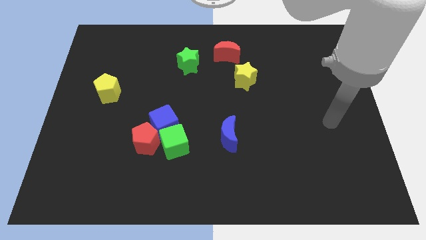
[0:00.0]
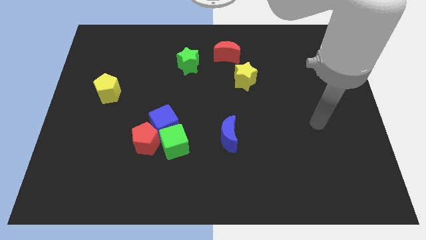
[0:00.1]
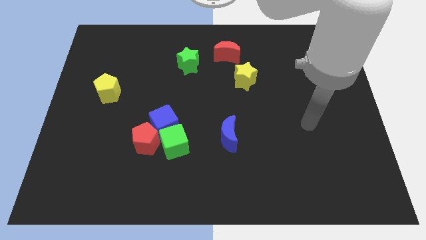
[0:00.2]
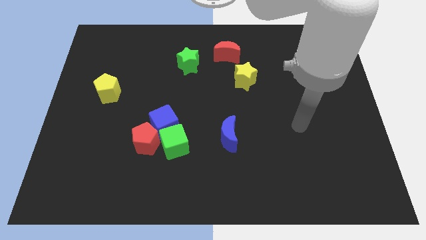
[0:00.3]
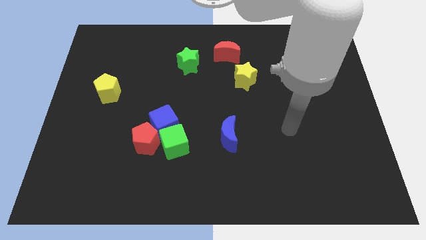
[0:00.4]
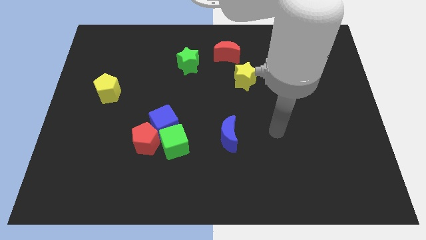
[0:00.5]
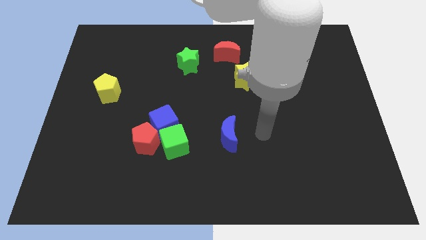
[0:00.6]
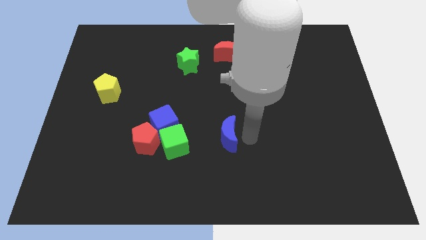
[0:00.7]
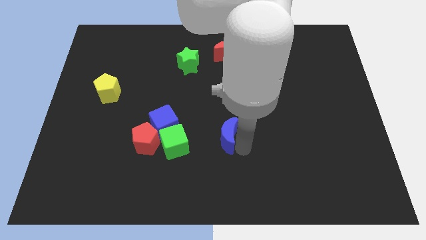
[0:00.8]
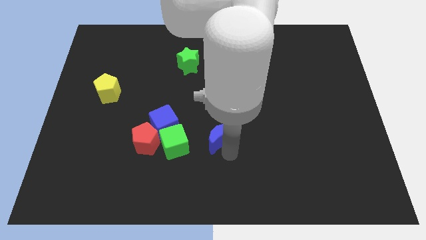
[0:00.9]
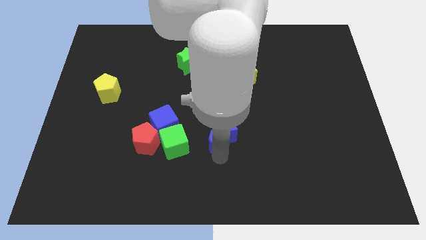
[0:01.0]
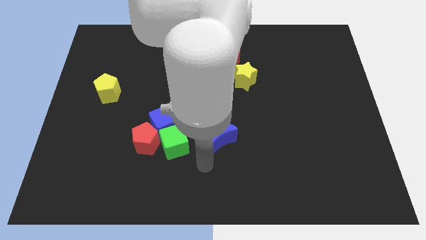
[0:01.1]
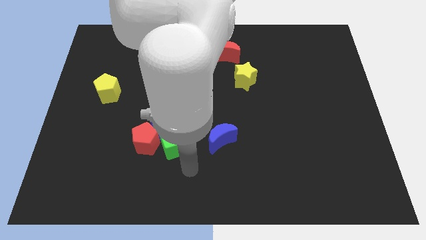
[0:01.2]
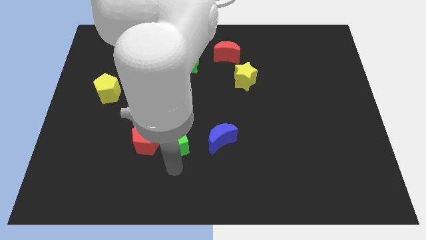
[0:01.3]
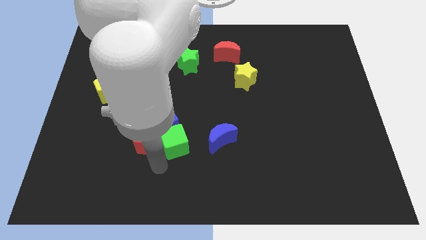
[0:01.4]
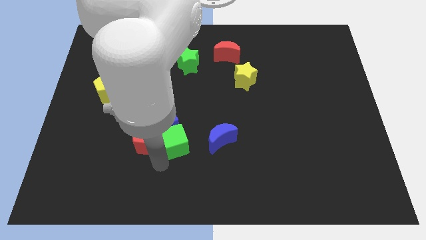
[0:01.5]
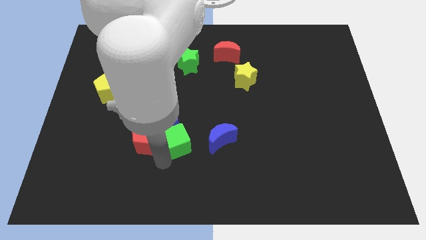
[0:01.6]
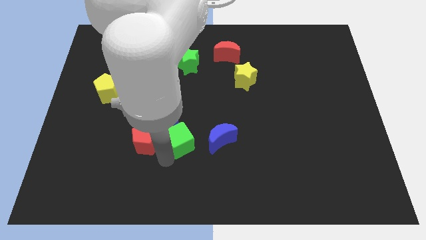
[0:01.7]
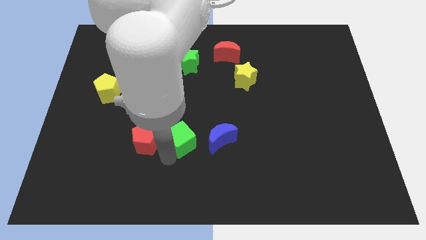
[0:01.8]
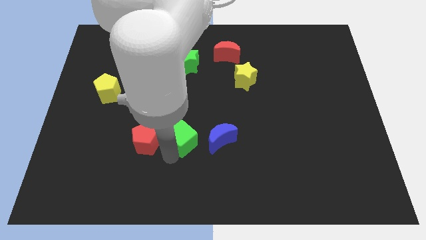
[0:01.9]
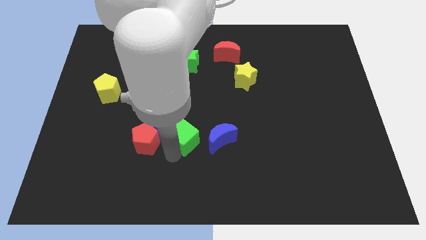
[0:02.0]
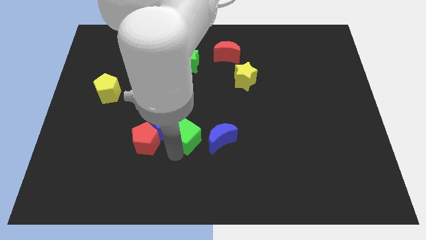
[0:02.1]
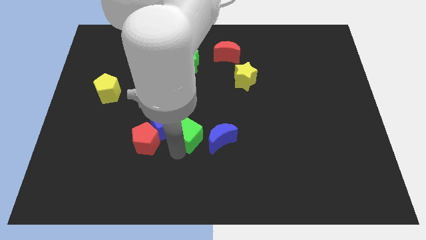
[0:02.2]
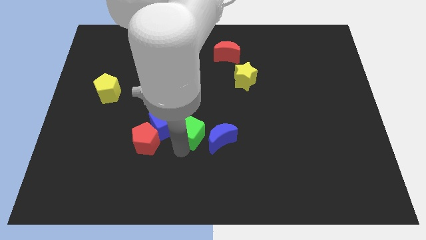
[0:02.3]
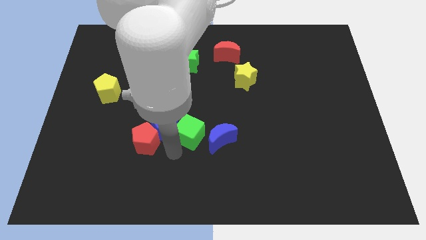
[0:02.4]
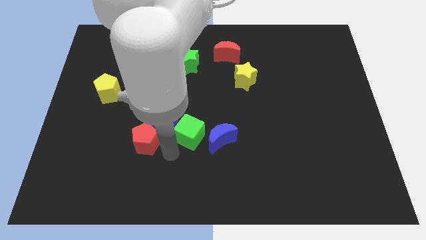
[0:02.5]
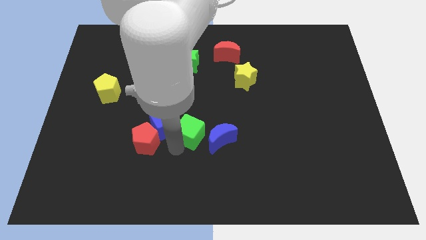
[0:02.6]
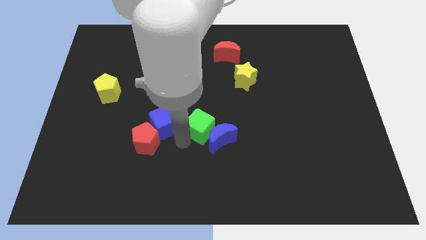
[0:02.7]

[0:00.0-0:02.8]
move the green cube up and to the right diagonally a little

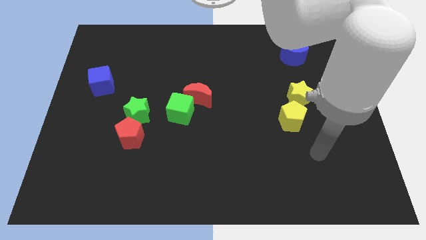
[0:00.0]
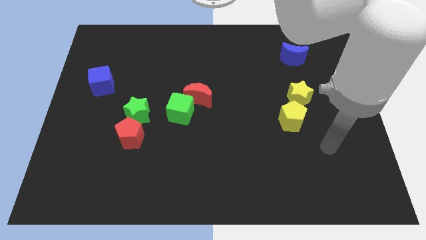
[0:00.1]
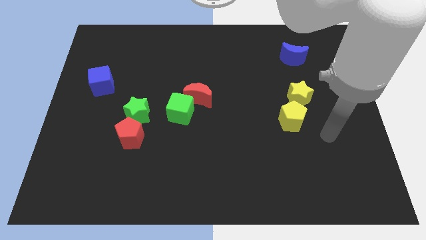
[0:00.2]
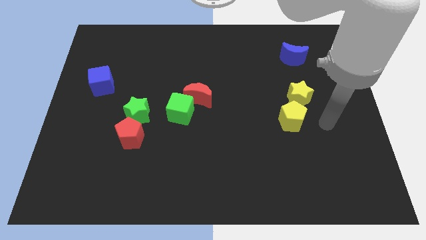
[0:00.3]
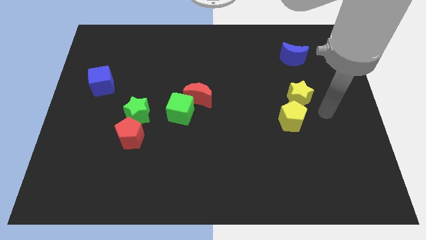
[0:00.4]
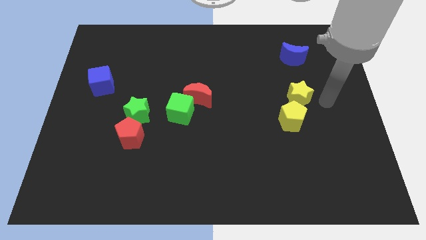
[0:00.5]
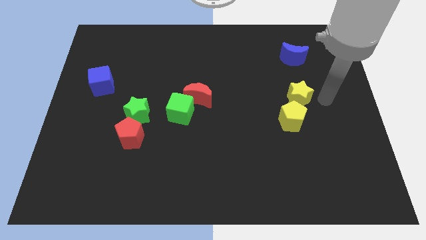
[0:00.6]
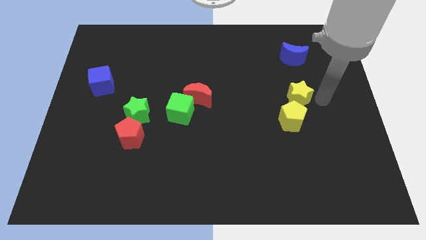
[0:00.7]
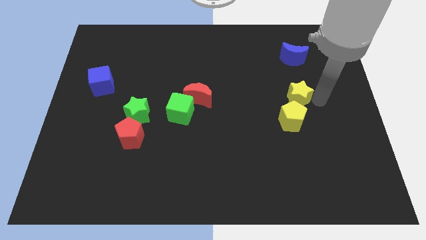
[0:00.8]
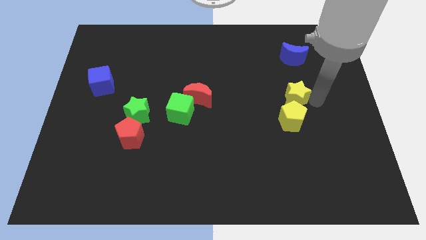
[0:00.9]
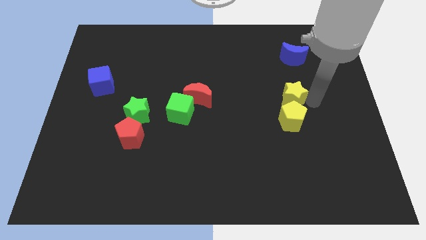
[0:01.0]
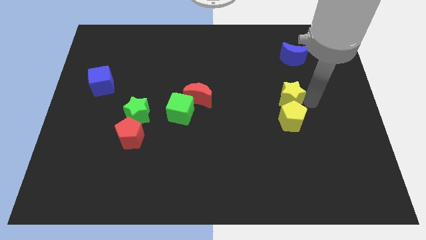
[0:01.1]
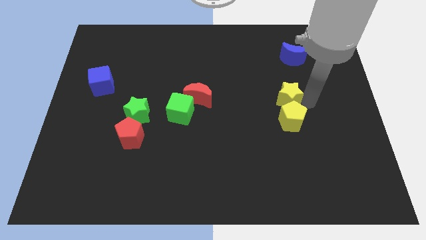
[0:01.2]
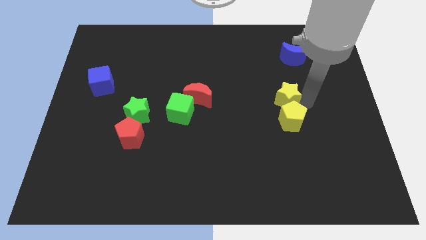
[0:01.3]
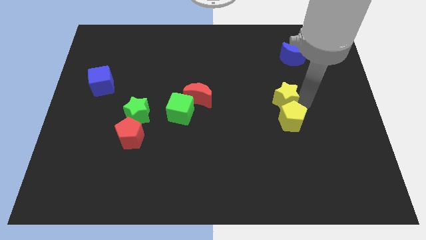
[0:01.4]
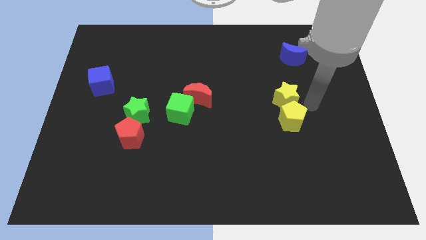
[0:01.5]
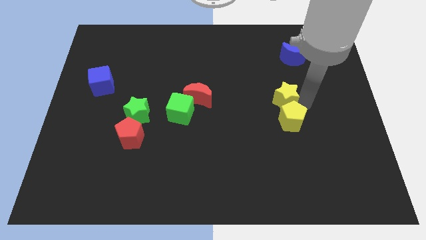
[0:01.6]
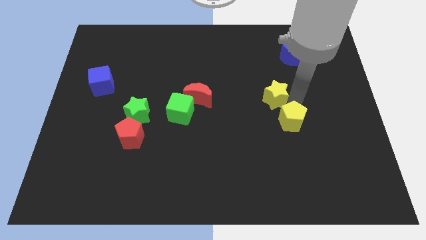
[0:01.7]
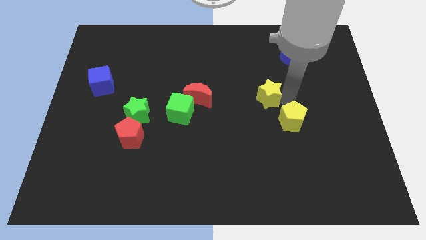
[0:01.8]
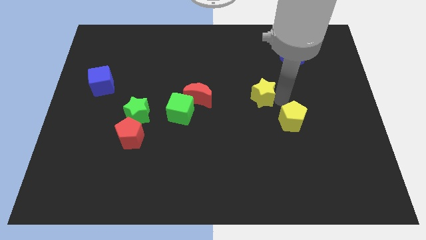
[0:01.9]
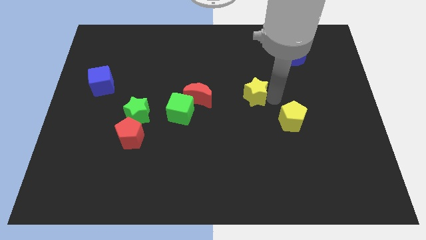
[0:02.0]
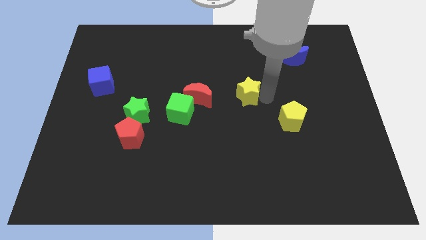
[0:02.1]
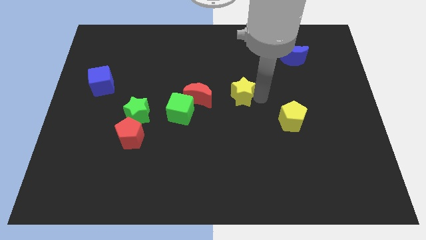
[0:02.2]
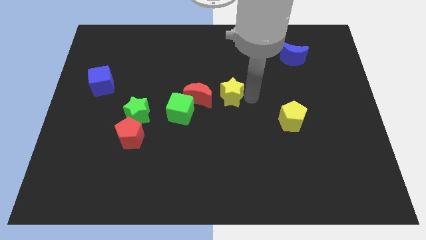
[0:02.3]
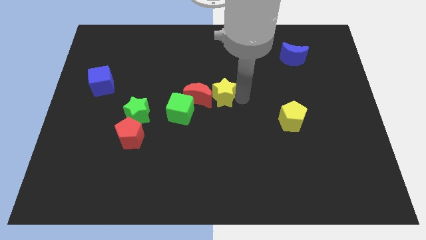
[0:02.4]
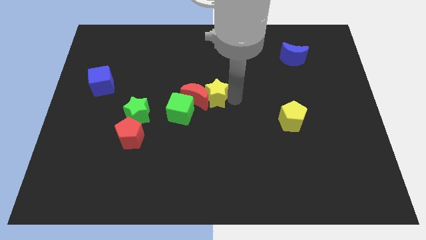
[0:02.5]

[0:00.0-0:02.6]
move the yellow star left

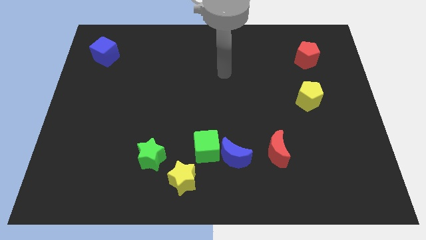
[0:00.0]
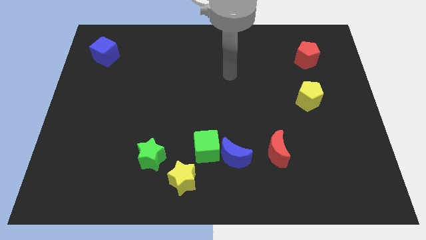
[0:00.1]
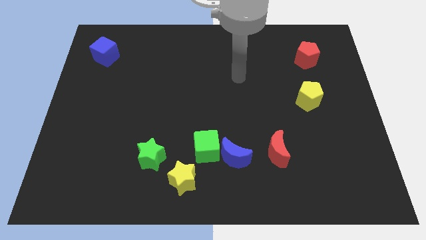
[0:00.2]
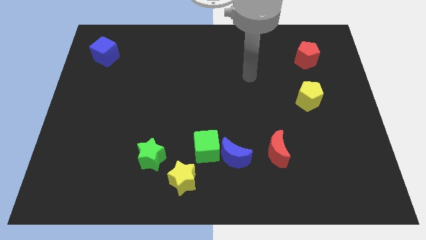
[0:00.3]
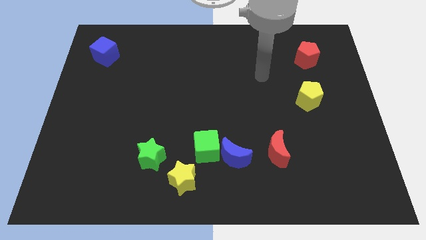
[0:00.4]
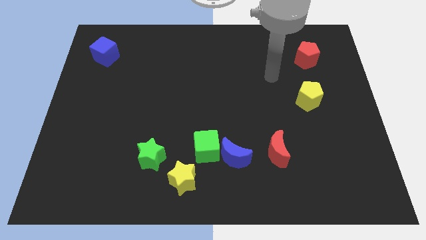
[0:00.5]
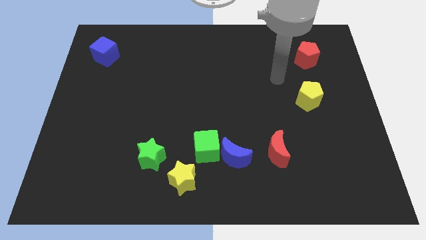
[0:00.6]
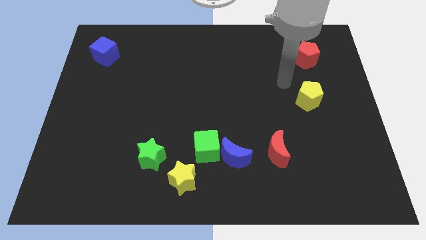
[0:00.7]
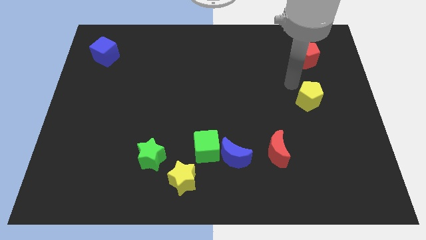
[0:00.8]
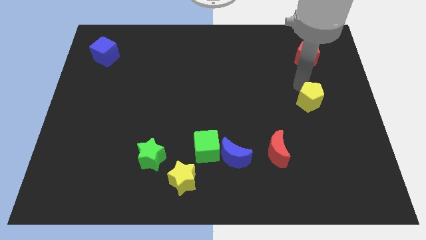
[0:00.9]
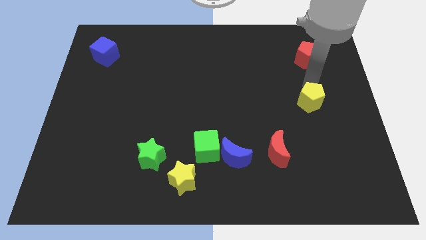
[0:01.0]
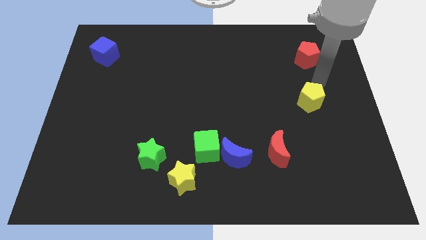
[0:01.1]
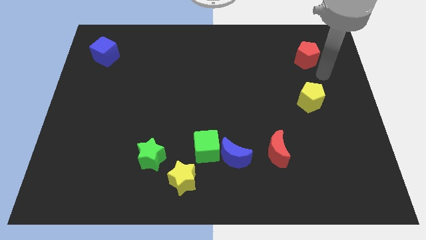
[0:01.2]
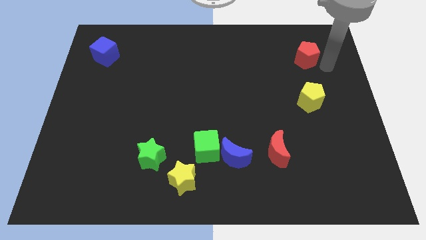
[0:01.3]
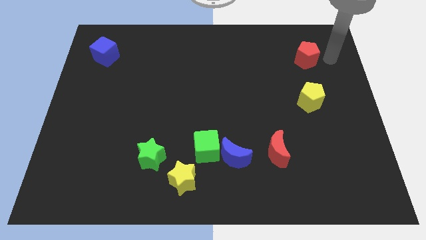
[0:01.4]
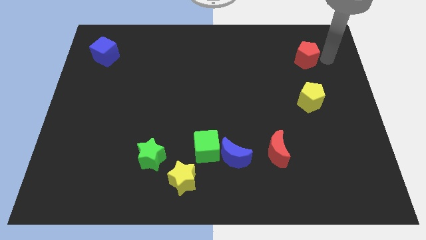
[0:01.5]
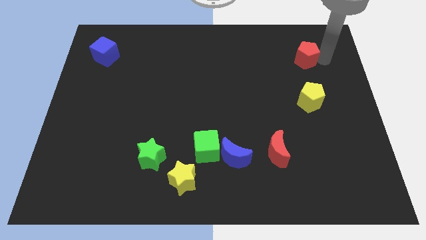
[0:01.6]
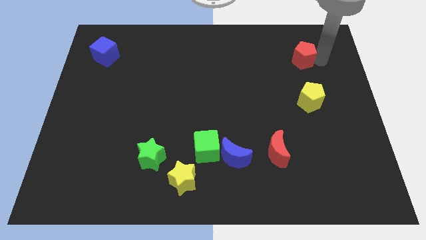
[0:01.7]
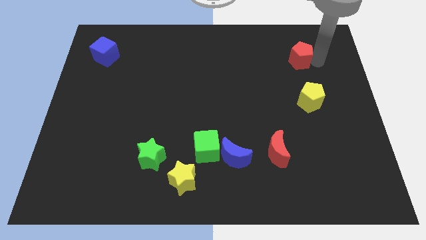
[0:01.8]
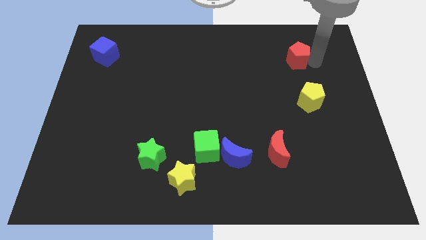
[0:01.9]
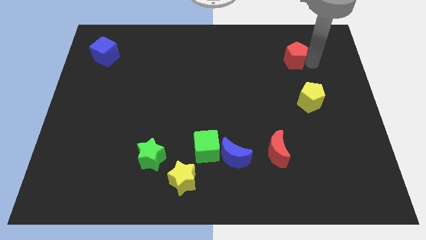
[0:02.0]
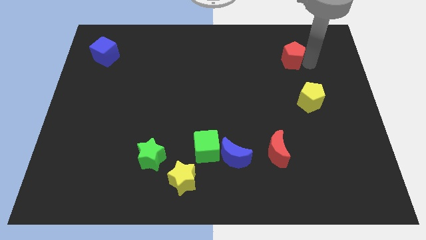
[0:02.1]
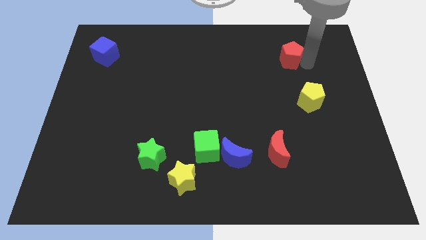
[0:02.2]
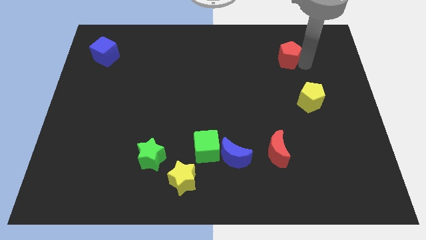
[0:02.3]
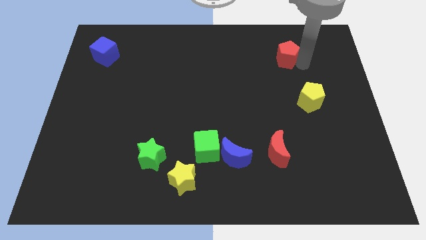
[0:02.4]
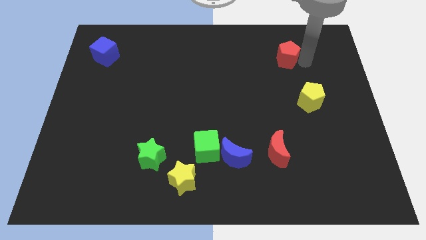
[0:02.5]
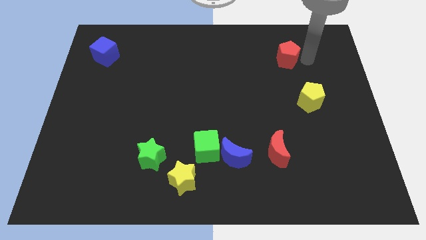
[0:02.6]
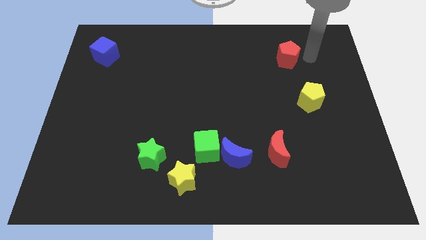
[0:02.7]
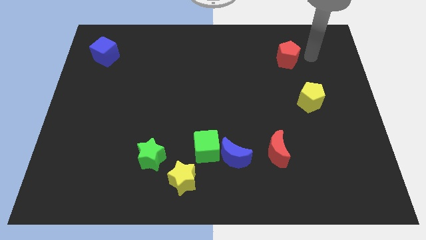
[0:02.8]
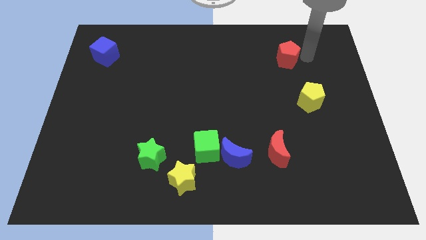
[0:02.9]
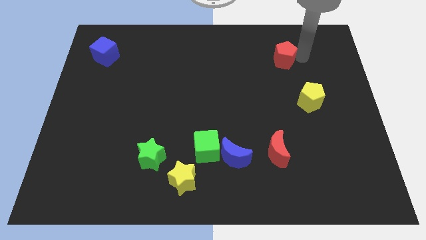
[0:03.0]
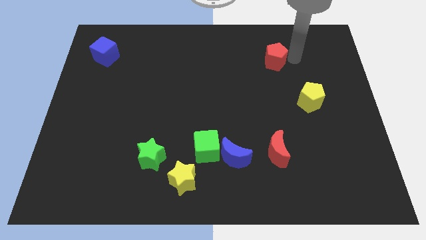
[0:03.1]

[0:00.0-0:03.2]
slightly move the red pentagon to the left
